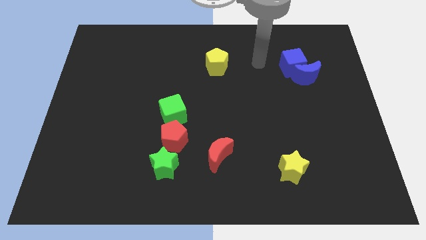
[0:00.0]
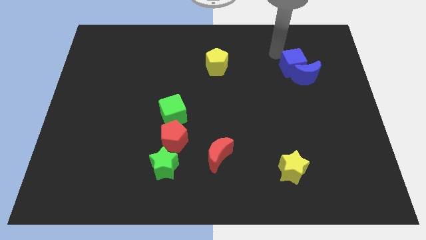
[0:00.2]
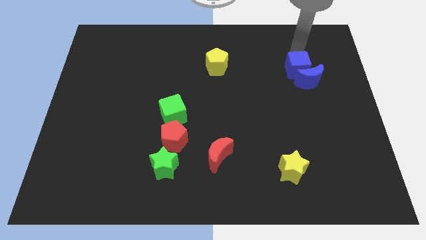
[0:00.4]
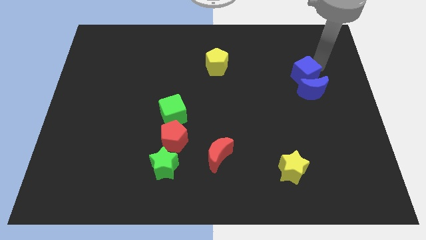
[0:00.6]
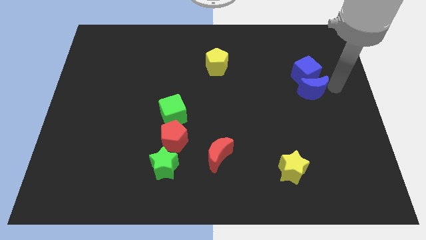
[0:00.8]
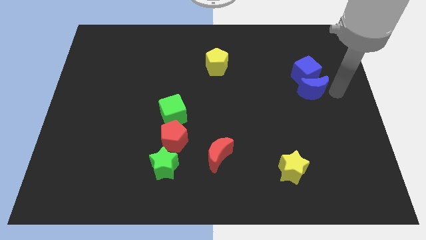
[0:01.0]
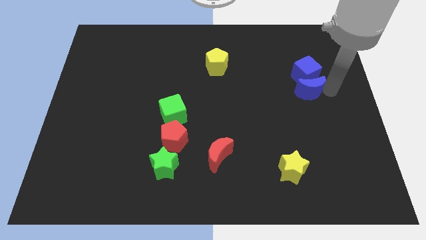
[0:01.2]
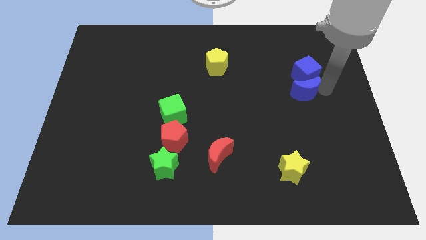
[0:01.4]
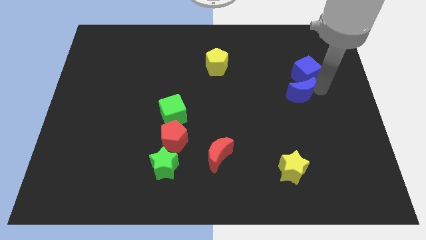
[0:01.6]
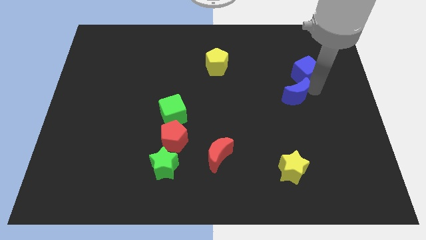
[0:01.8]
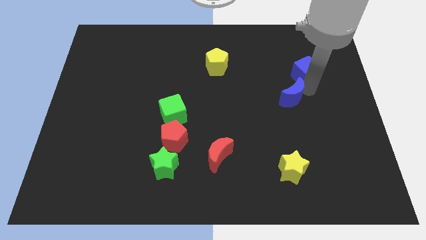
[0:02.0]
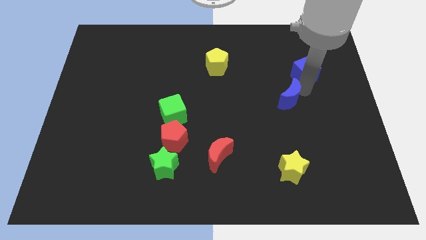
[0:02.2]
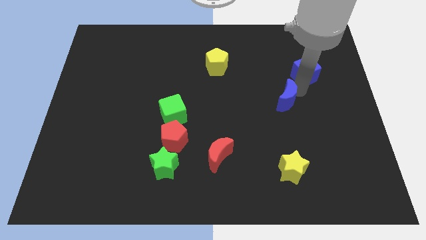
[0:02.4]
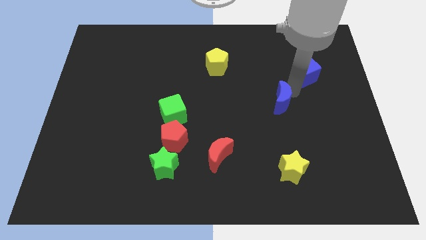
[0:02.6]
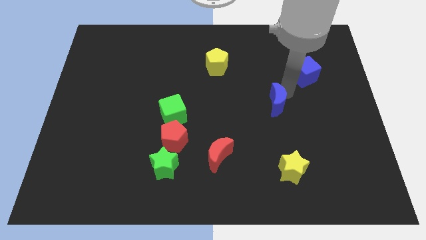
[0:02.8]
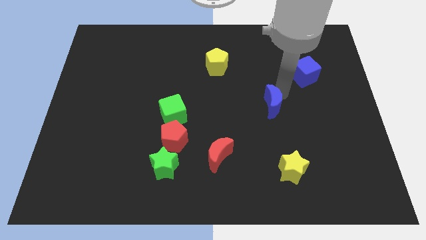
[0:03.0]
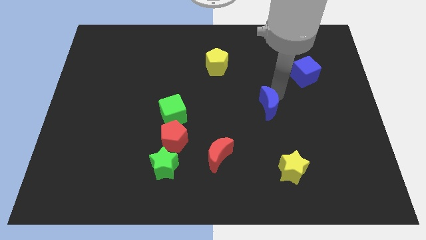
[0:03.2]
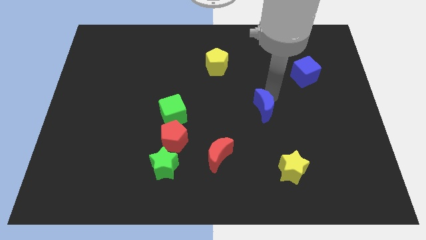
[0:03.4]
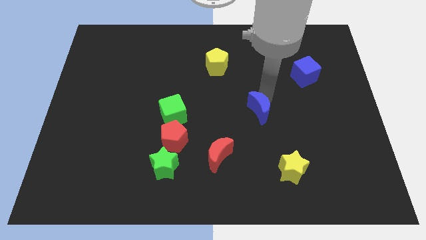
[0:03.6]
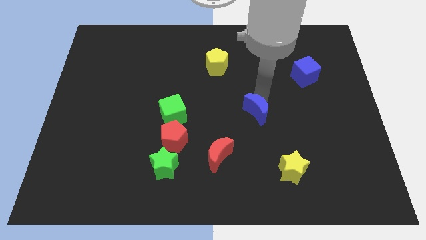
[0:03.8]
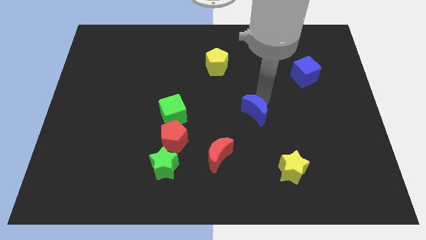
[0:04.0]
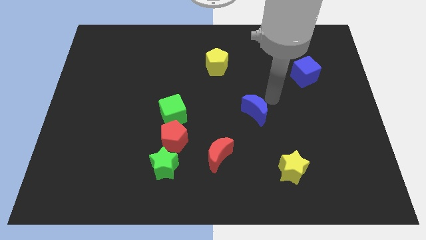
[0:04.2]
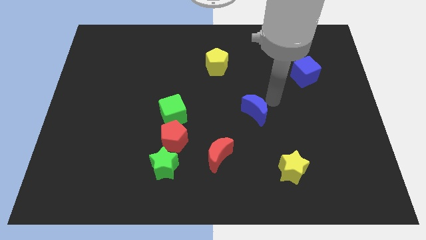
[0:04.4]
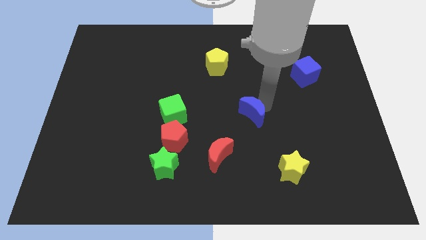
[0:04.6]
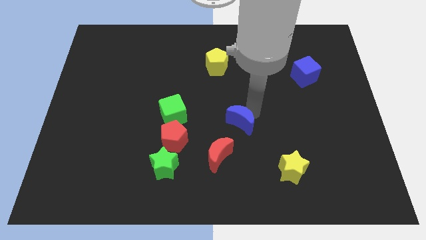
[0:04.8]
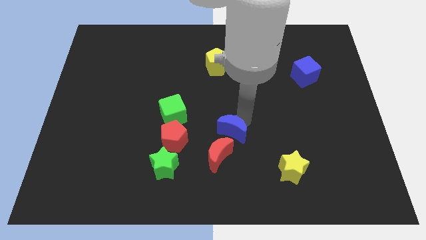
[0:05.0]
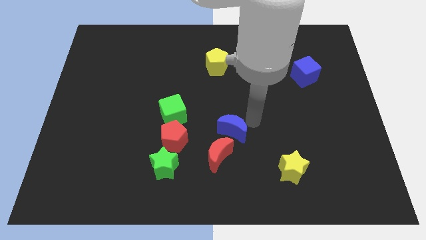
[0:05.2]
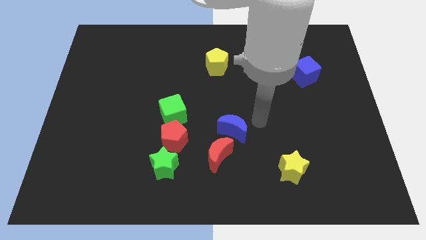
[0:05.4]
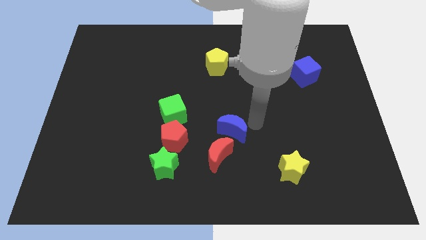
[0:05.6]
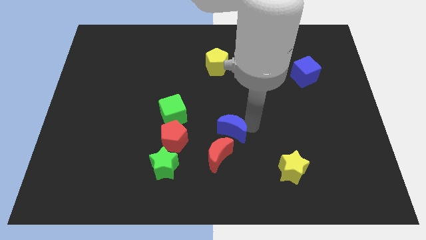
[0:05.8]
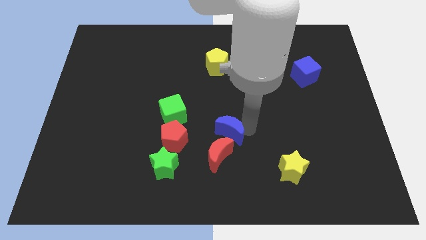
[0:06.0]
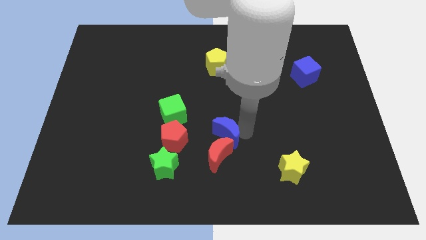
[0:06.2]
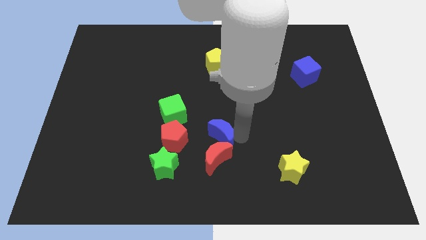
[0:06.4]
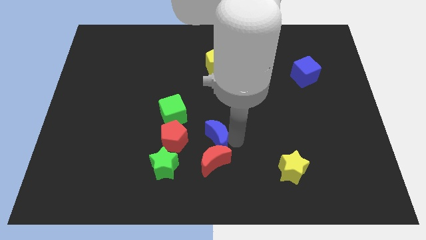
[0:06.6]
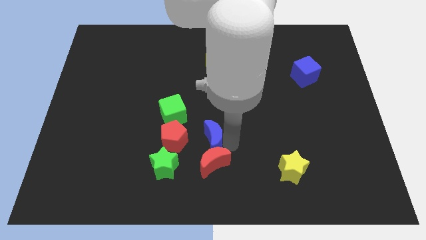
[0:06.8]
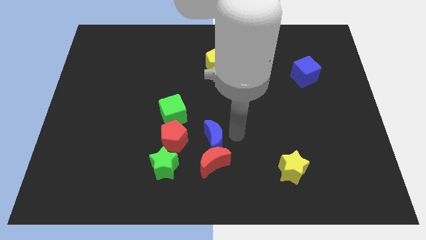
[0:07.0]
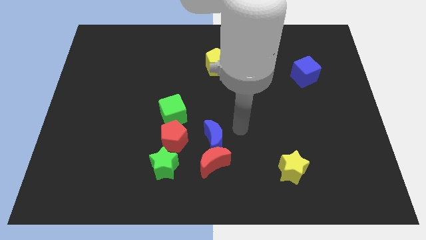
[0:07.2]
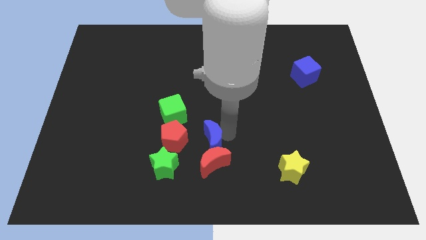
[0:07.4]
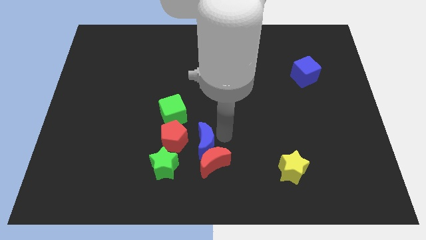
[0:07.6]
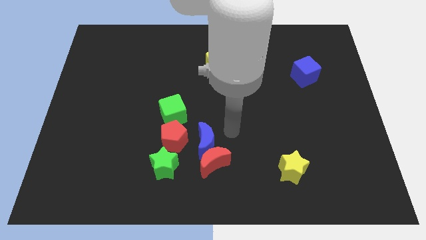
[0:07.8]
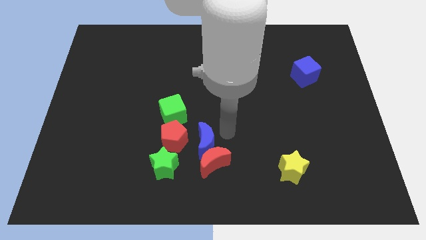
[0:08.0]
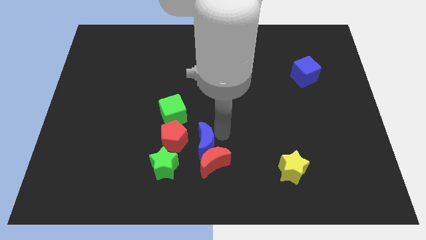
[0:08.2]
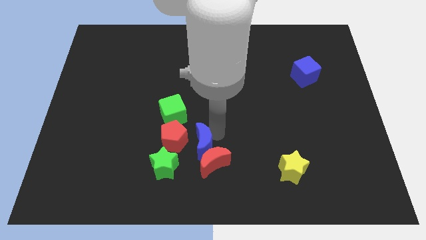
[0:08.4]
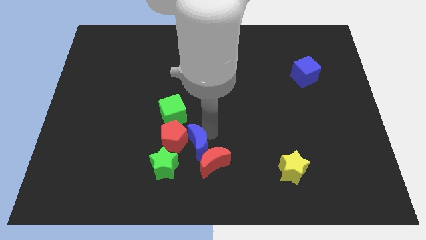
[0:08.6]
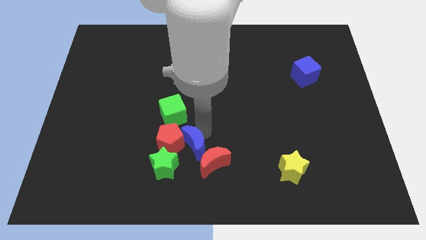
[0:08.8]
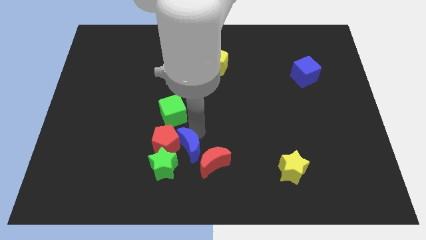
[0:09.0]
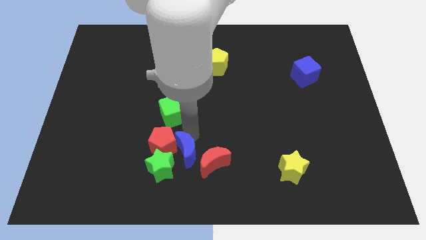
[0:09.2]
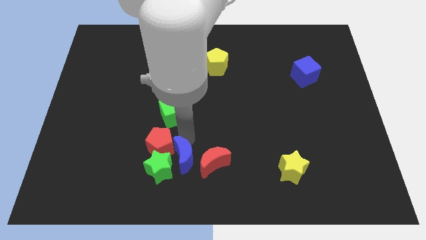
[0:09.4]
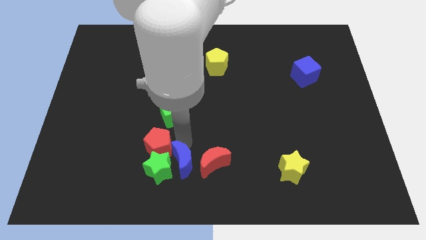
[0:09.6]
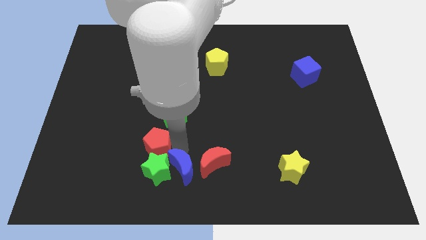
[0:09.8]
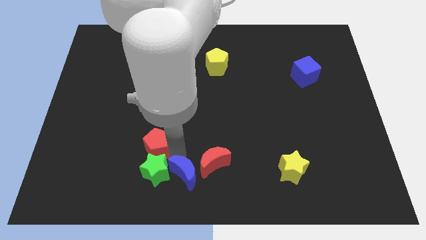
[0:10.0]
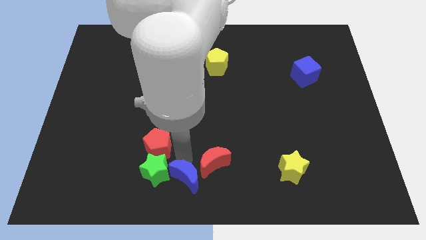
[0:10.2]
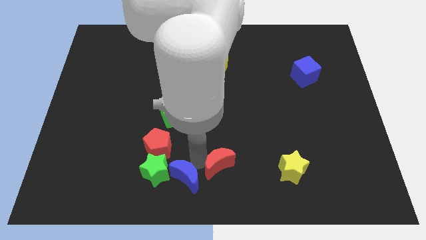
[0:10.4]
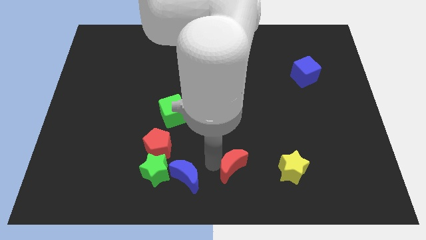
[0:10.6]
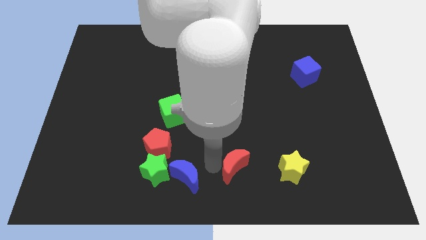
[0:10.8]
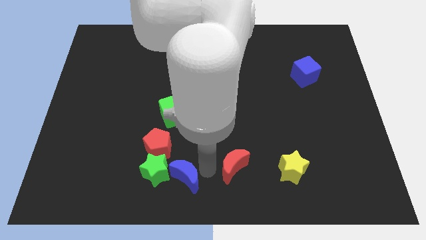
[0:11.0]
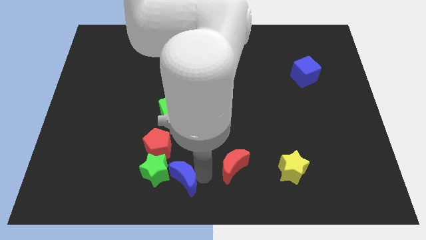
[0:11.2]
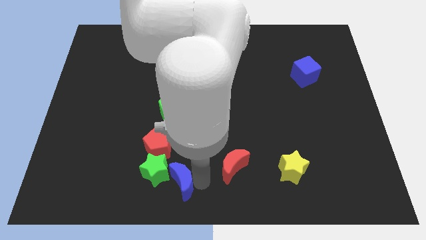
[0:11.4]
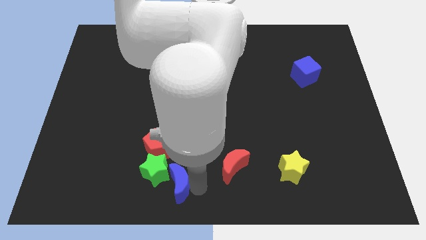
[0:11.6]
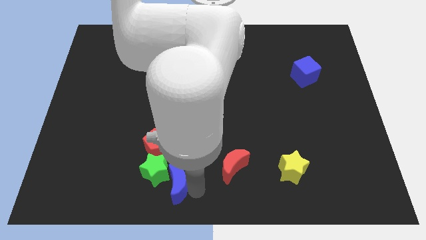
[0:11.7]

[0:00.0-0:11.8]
slide the blue moon to the bottom of the red pentagon

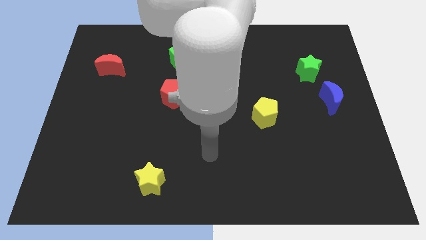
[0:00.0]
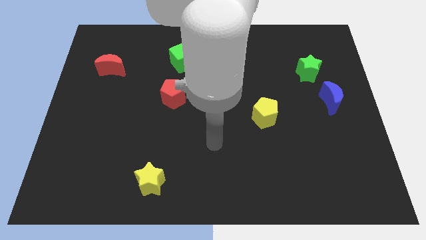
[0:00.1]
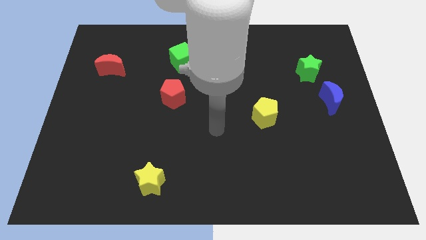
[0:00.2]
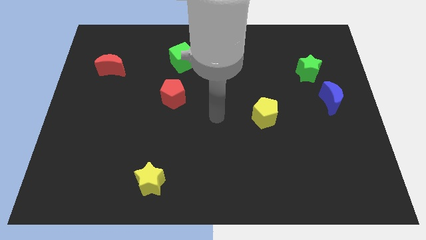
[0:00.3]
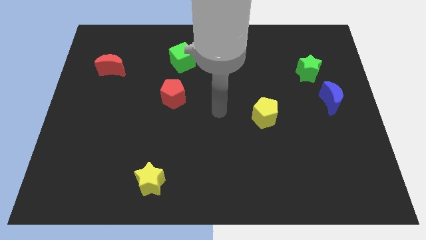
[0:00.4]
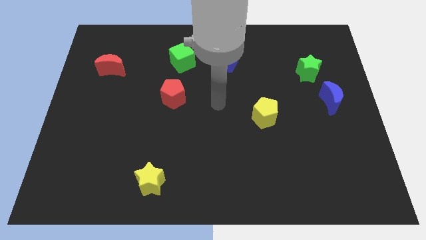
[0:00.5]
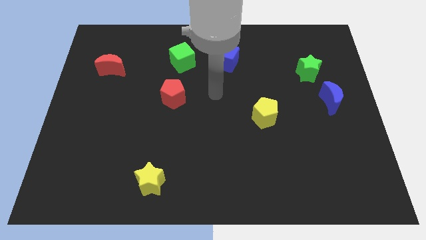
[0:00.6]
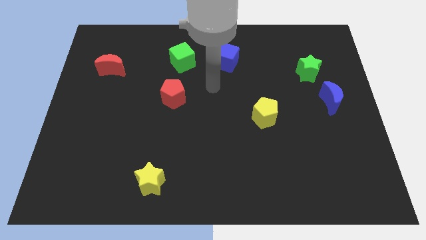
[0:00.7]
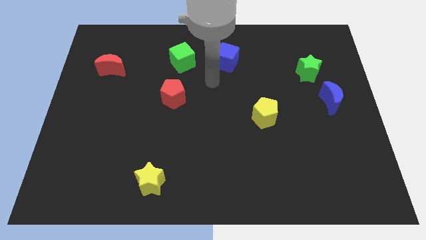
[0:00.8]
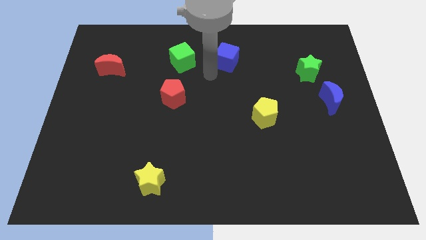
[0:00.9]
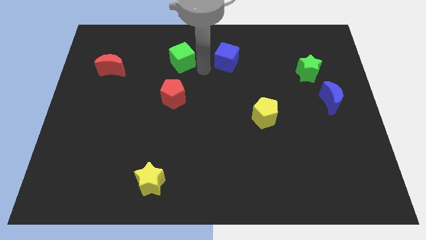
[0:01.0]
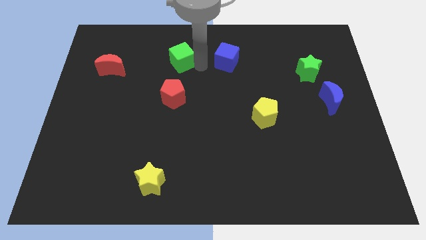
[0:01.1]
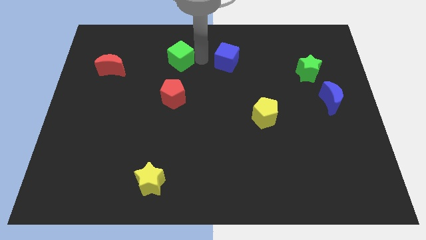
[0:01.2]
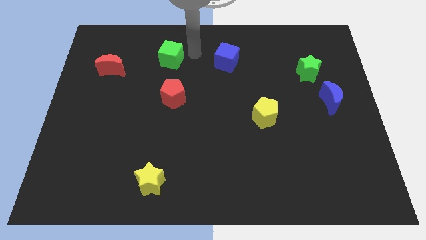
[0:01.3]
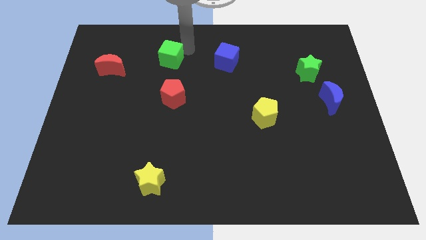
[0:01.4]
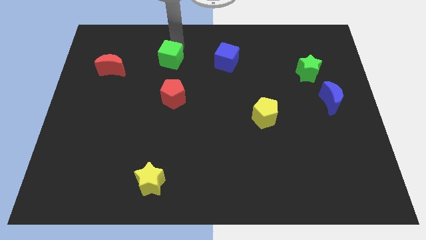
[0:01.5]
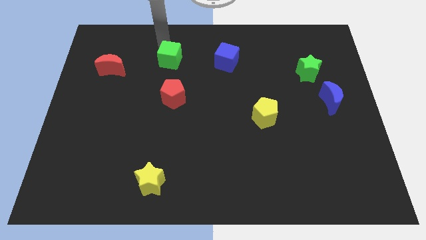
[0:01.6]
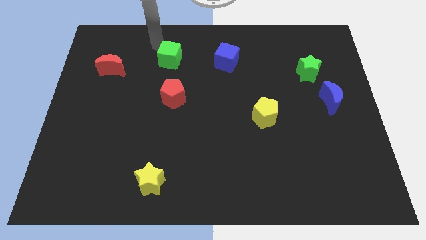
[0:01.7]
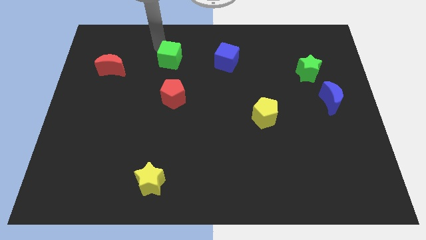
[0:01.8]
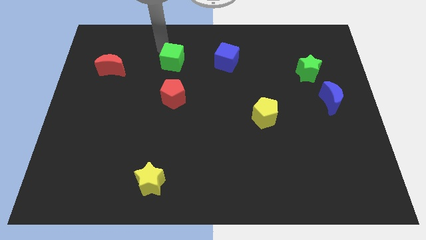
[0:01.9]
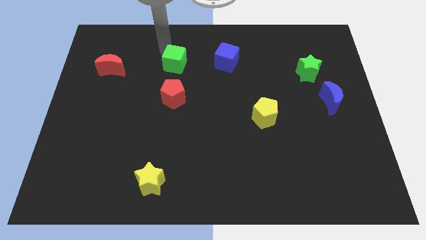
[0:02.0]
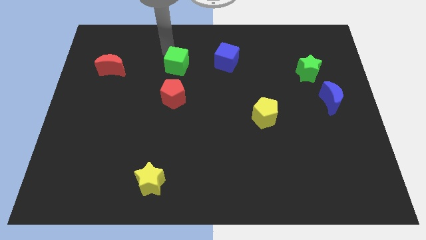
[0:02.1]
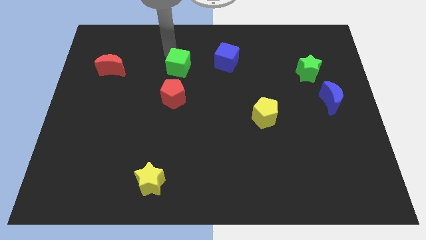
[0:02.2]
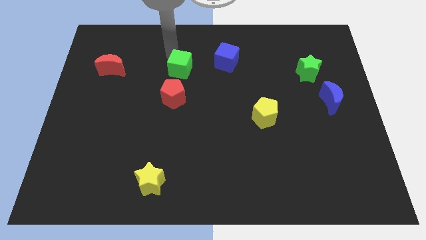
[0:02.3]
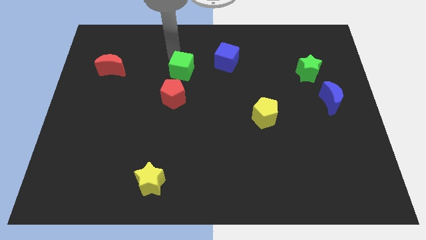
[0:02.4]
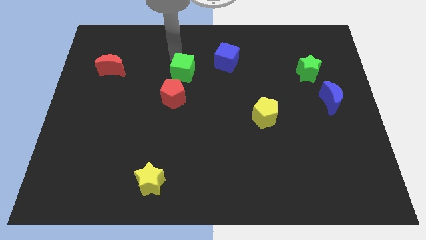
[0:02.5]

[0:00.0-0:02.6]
push the green cube diagonally up and to the right of the red pentagon
